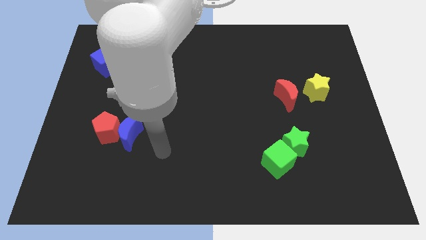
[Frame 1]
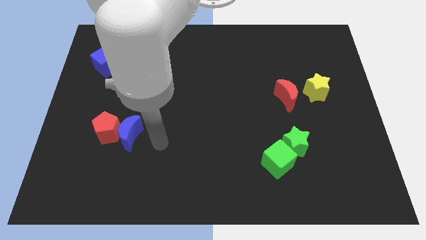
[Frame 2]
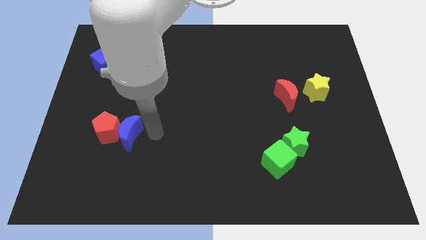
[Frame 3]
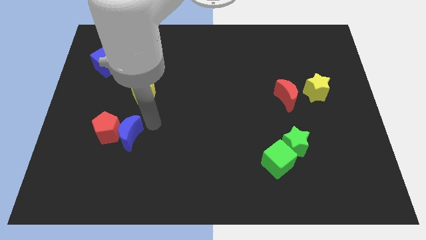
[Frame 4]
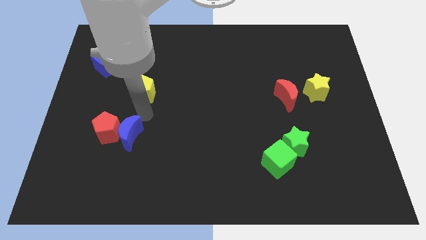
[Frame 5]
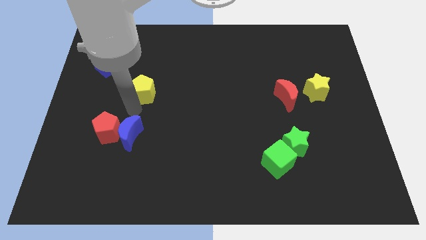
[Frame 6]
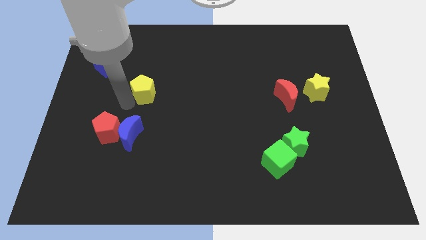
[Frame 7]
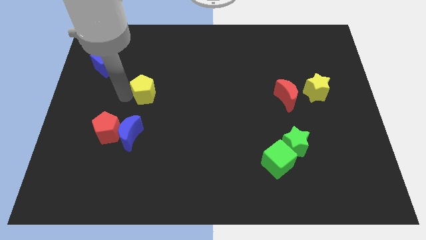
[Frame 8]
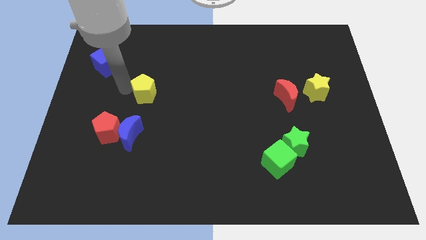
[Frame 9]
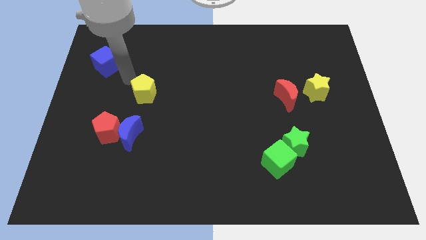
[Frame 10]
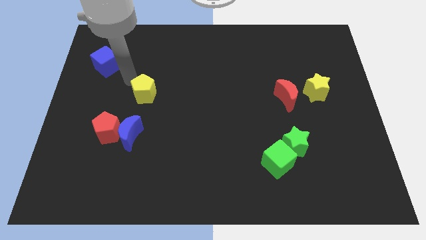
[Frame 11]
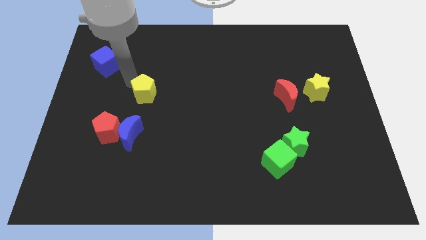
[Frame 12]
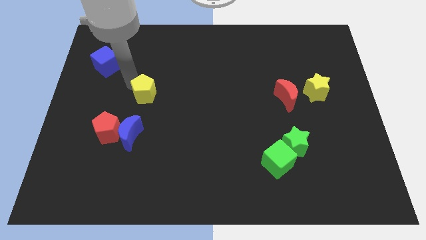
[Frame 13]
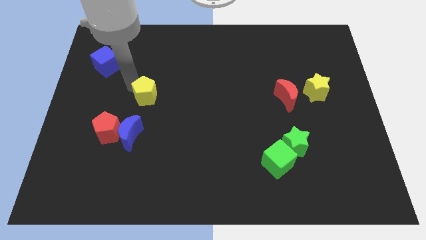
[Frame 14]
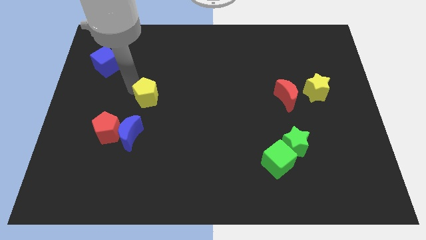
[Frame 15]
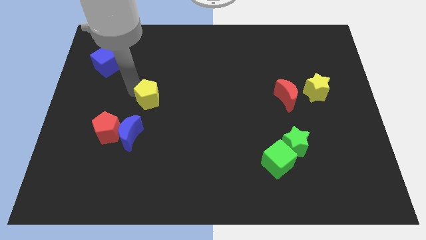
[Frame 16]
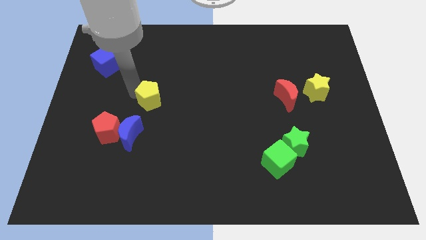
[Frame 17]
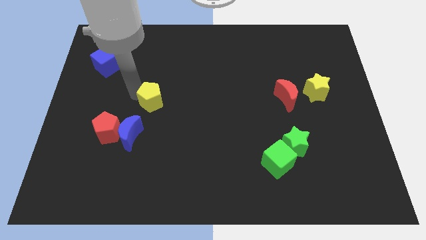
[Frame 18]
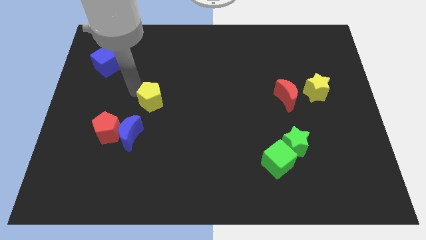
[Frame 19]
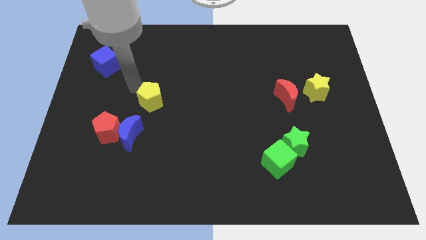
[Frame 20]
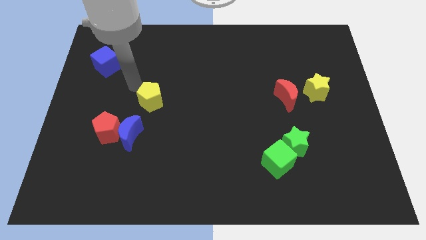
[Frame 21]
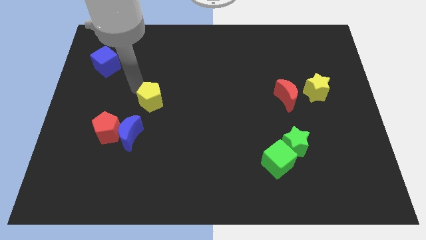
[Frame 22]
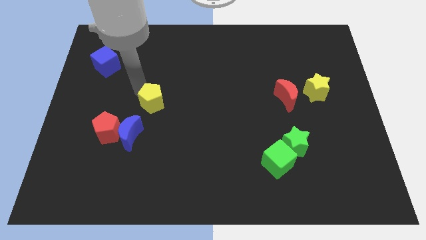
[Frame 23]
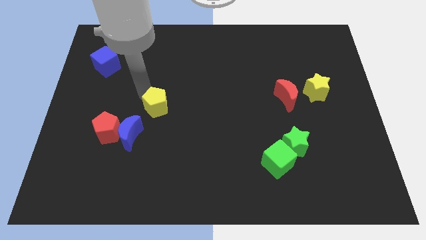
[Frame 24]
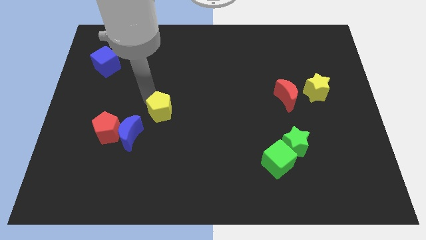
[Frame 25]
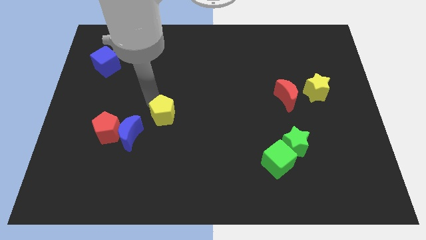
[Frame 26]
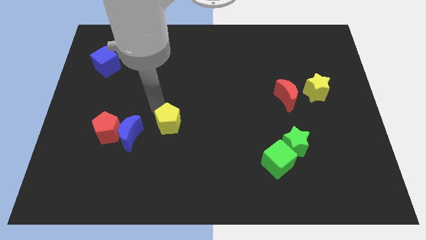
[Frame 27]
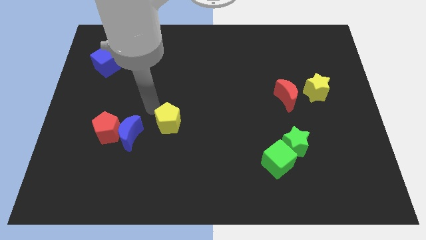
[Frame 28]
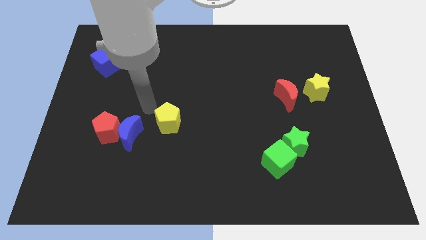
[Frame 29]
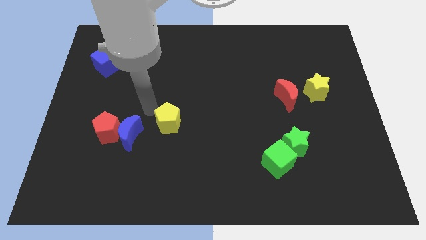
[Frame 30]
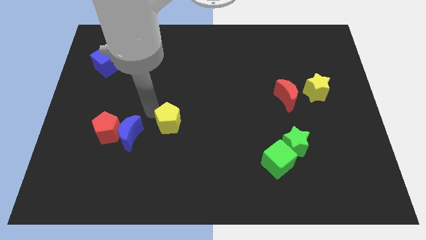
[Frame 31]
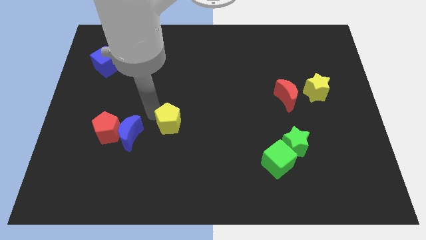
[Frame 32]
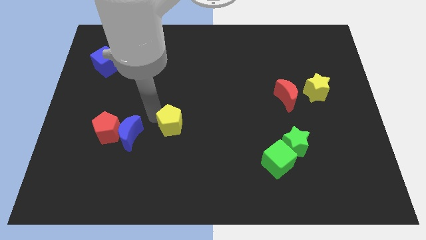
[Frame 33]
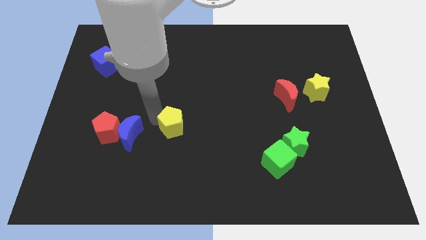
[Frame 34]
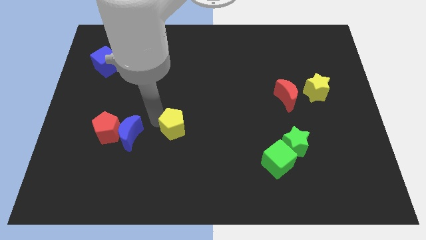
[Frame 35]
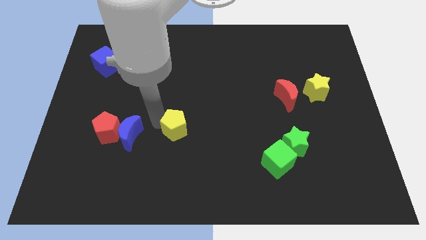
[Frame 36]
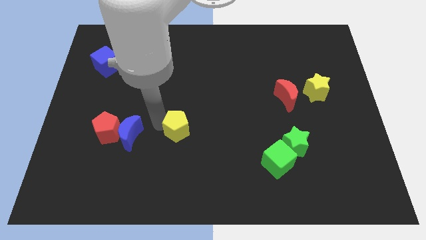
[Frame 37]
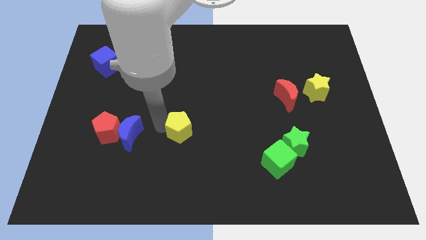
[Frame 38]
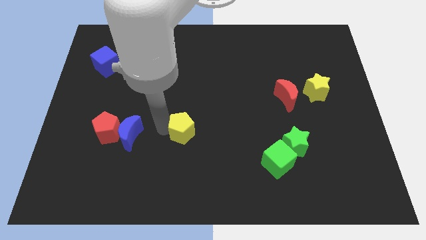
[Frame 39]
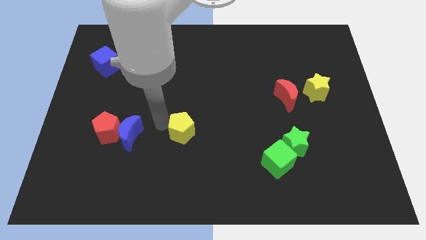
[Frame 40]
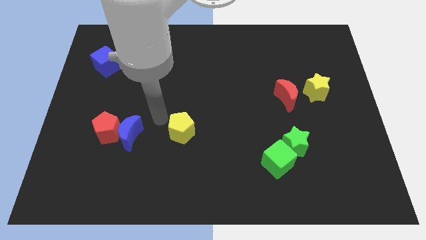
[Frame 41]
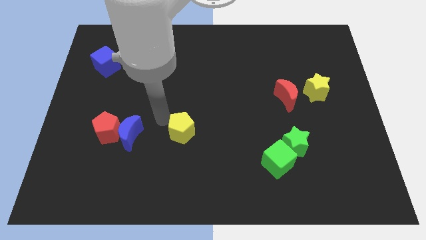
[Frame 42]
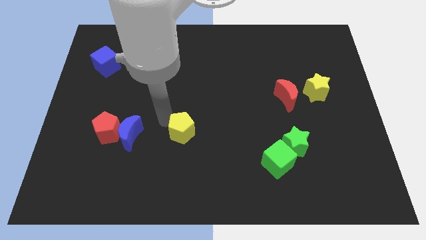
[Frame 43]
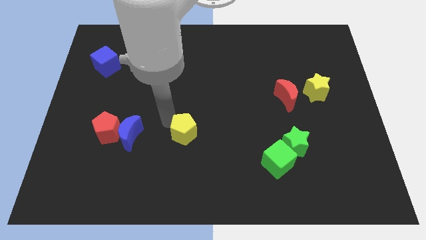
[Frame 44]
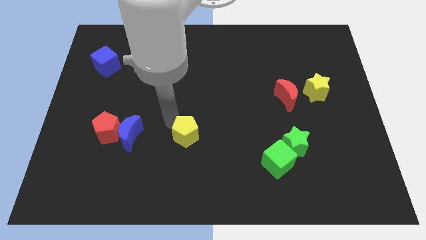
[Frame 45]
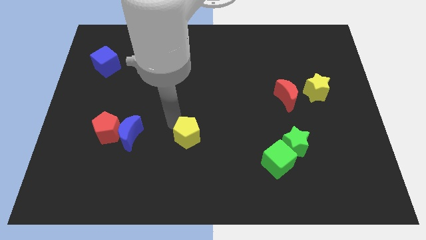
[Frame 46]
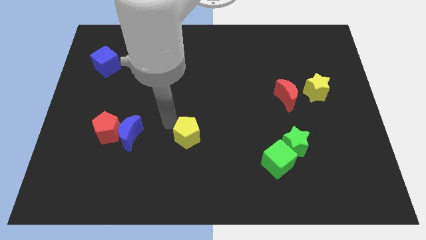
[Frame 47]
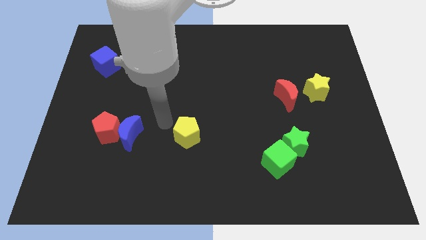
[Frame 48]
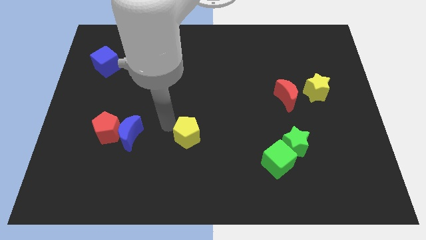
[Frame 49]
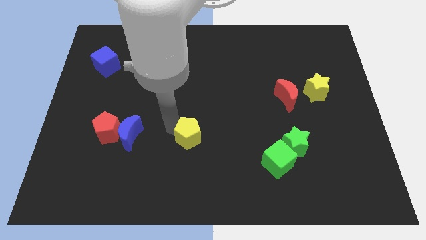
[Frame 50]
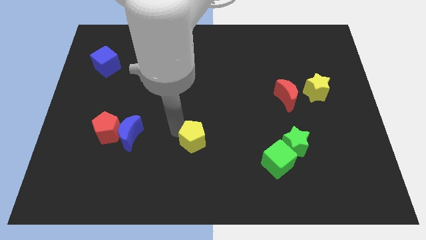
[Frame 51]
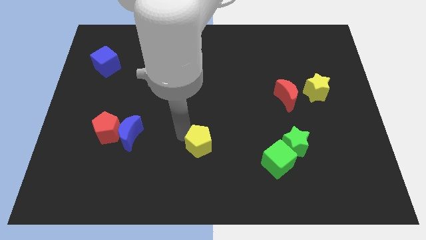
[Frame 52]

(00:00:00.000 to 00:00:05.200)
move the yellow pentagon down and then to the right

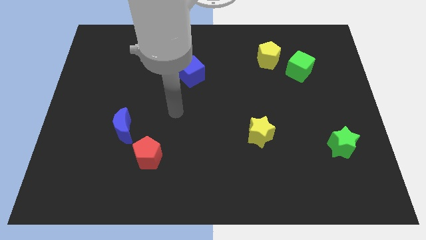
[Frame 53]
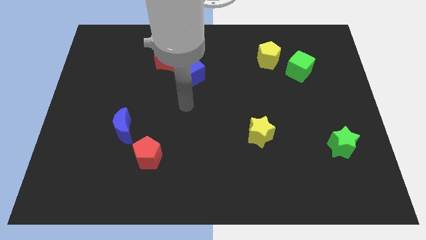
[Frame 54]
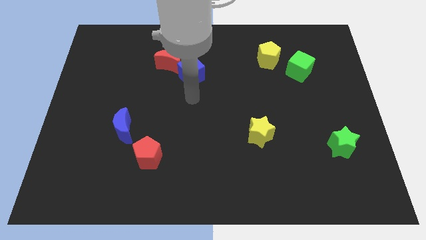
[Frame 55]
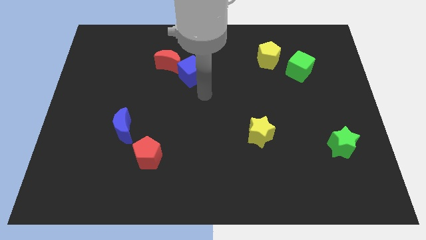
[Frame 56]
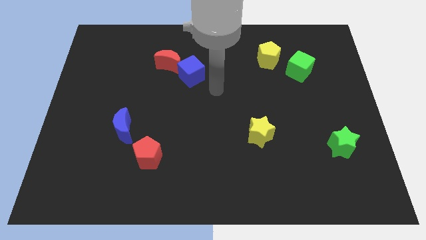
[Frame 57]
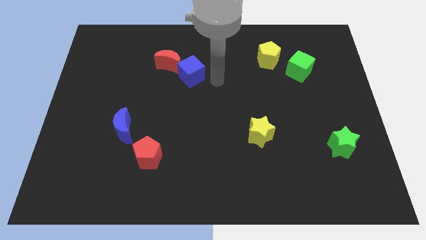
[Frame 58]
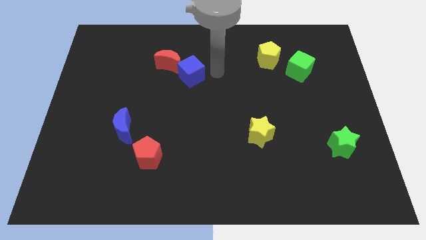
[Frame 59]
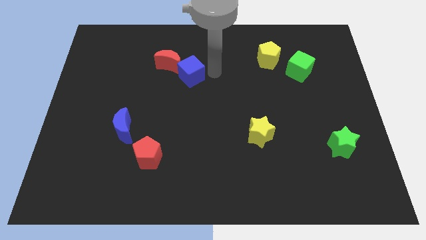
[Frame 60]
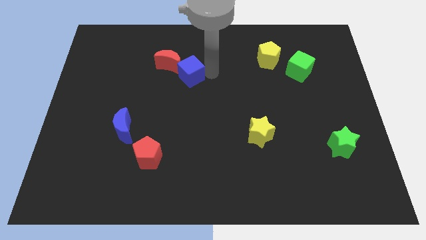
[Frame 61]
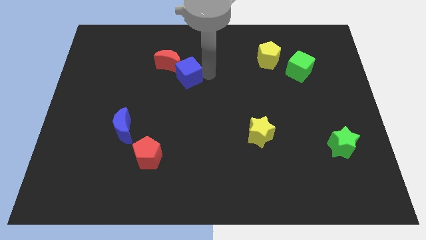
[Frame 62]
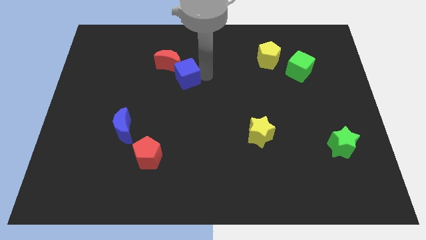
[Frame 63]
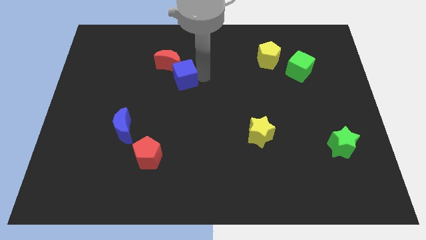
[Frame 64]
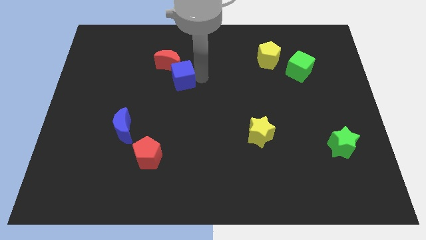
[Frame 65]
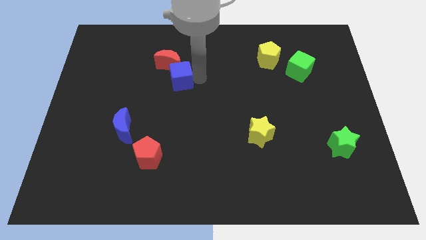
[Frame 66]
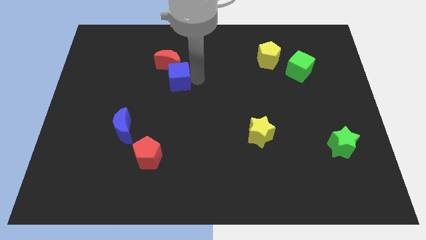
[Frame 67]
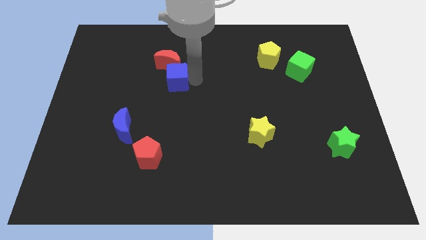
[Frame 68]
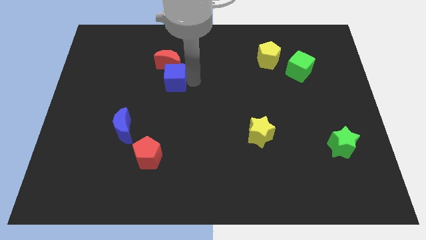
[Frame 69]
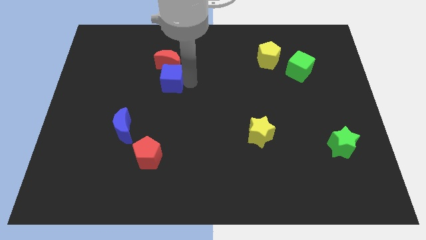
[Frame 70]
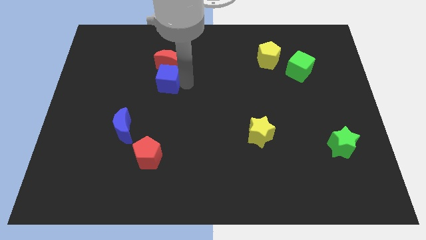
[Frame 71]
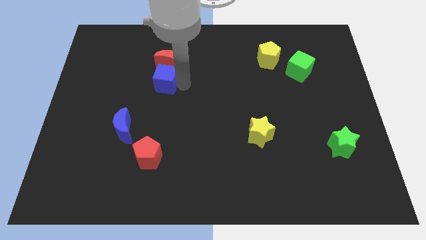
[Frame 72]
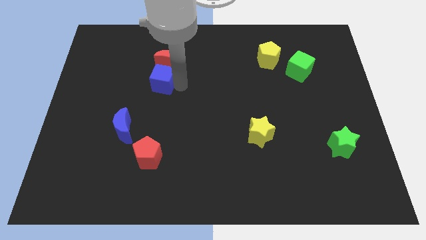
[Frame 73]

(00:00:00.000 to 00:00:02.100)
slide the blue cube somewhat to the left

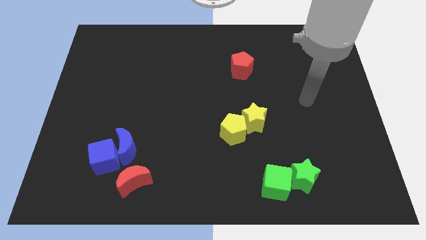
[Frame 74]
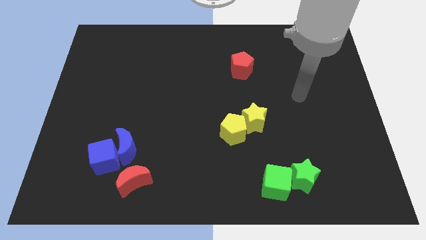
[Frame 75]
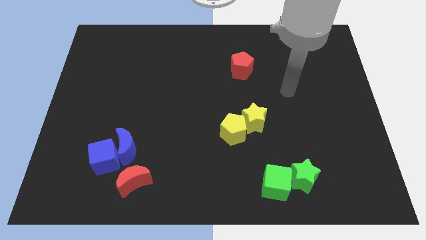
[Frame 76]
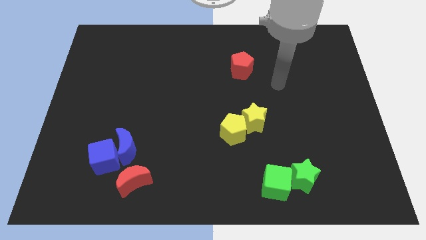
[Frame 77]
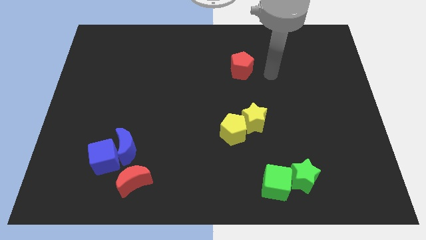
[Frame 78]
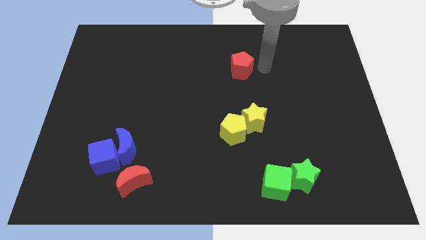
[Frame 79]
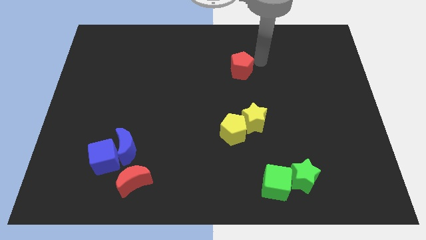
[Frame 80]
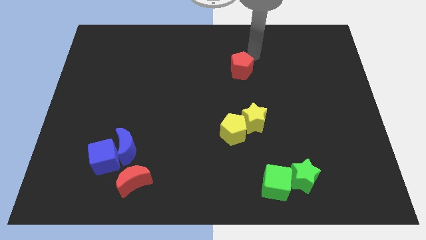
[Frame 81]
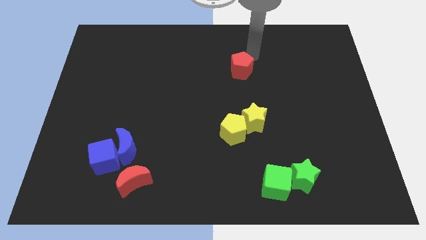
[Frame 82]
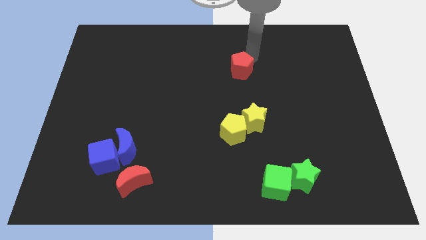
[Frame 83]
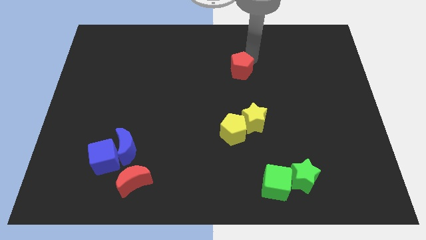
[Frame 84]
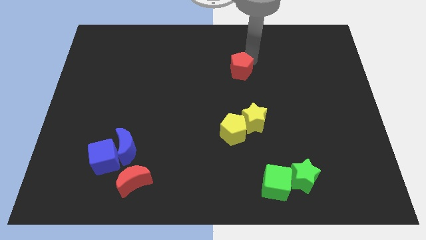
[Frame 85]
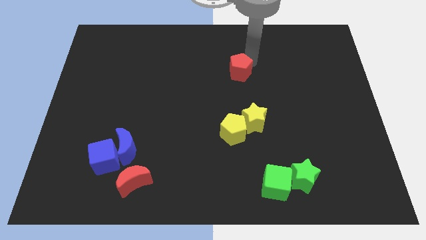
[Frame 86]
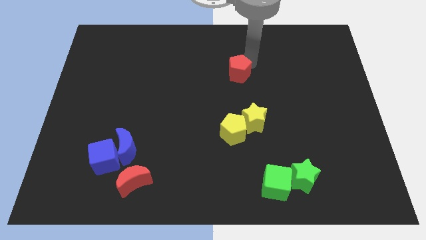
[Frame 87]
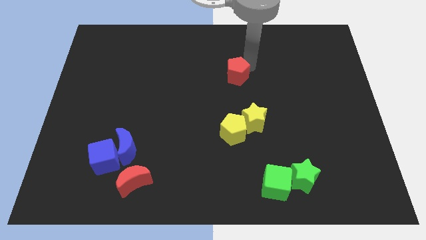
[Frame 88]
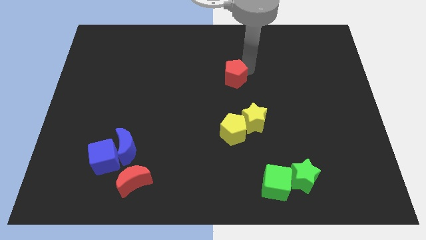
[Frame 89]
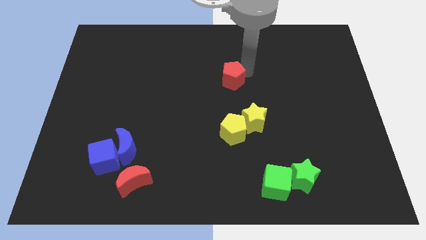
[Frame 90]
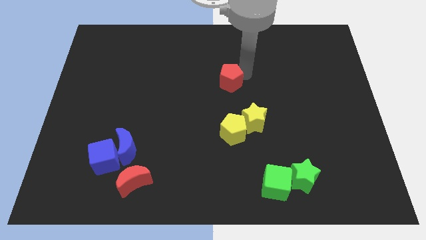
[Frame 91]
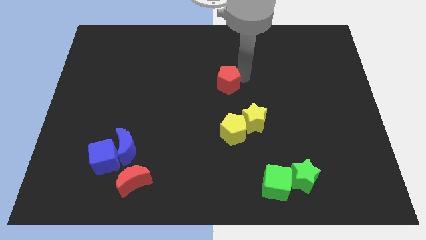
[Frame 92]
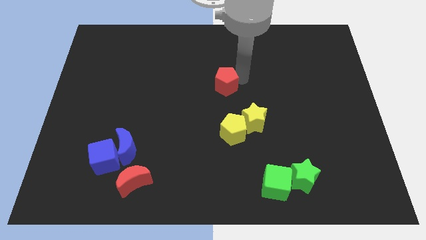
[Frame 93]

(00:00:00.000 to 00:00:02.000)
slightly slide the red pentagon diagonally down and to the left
